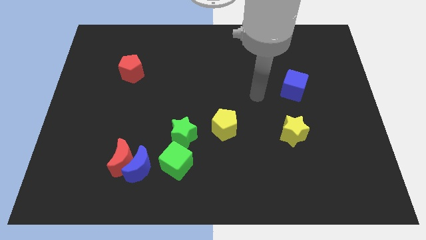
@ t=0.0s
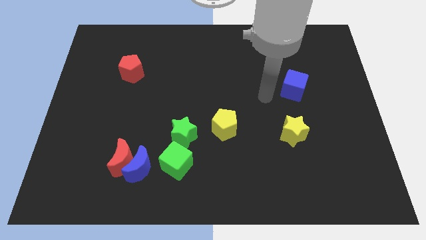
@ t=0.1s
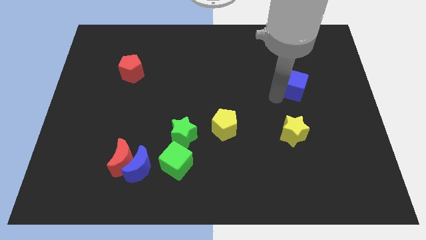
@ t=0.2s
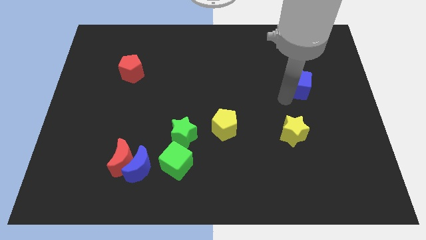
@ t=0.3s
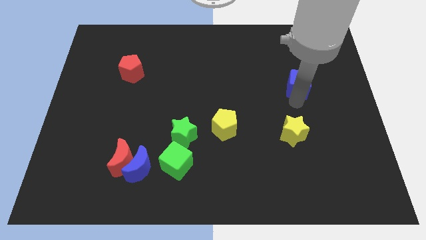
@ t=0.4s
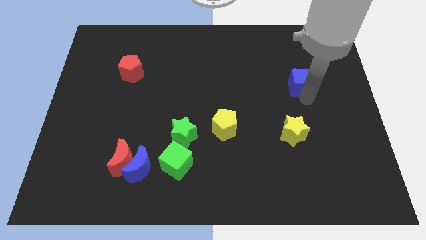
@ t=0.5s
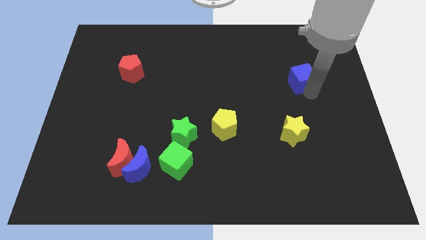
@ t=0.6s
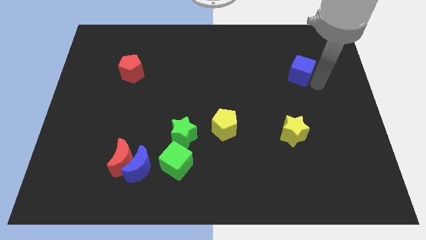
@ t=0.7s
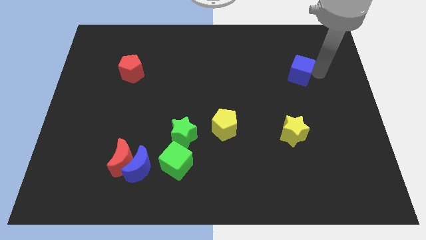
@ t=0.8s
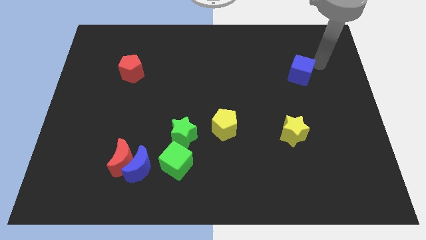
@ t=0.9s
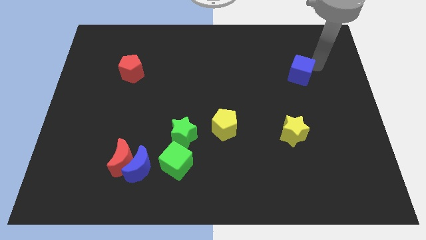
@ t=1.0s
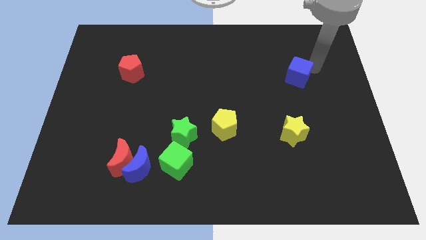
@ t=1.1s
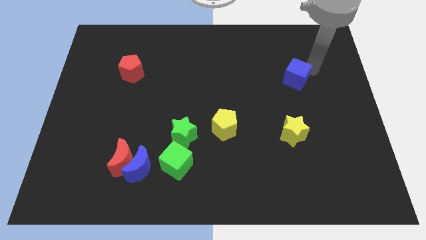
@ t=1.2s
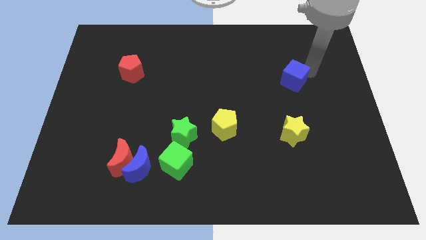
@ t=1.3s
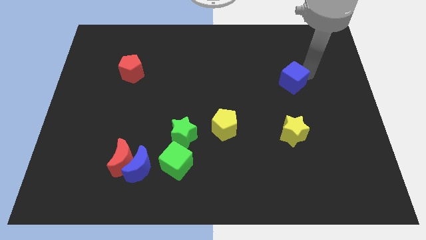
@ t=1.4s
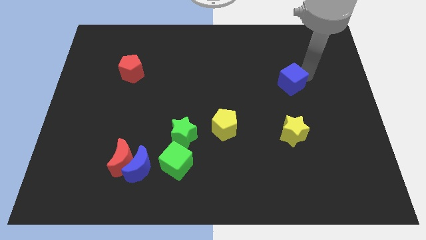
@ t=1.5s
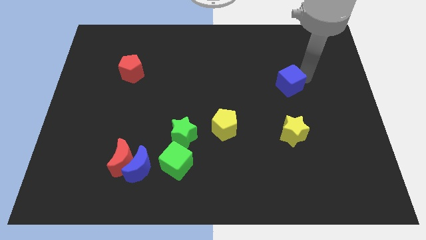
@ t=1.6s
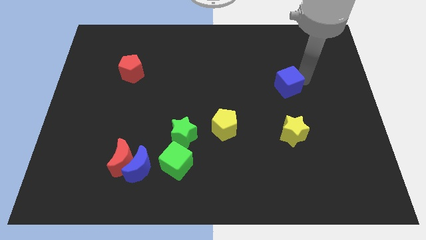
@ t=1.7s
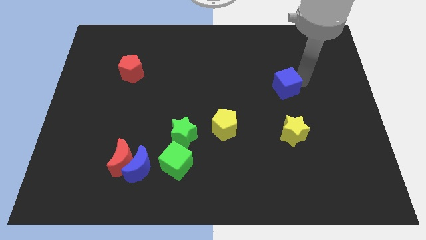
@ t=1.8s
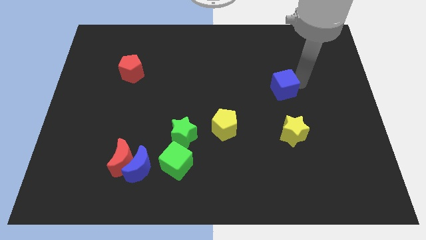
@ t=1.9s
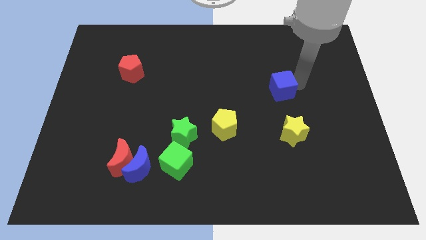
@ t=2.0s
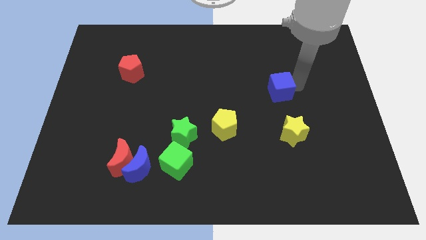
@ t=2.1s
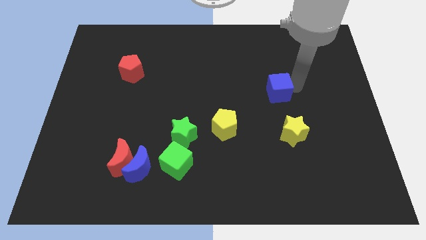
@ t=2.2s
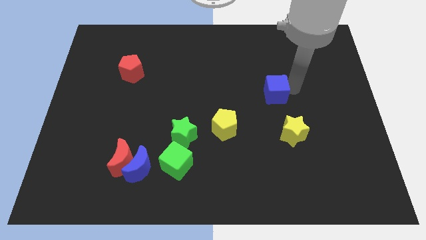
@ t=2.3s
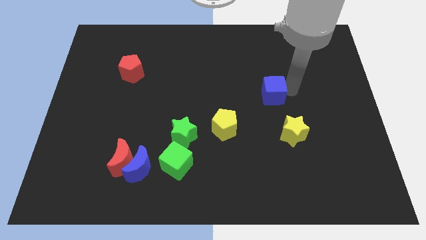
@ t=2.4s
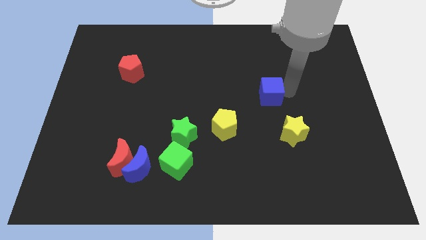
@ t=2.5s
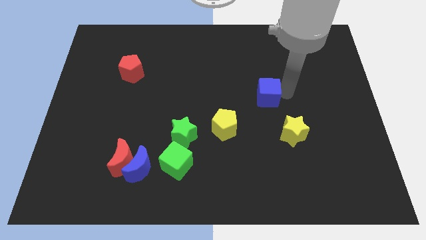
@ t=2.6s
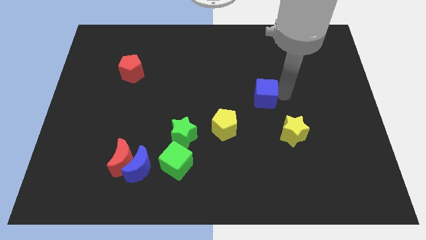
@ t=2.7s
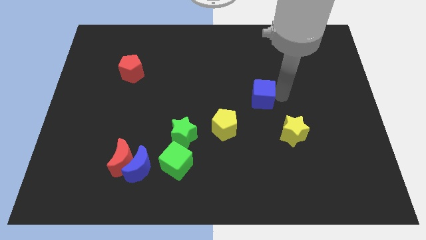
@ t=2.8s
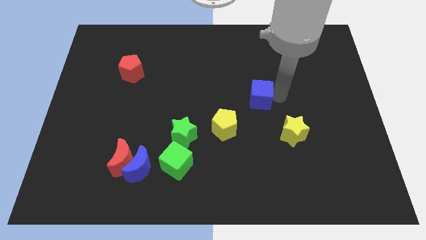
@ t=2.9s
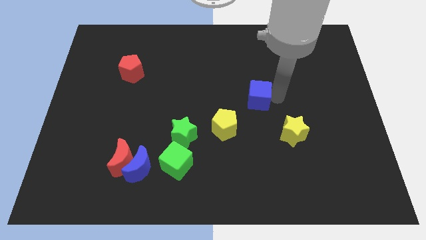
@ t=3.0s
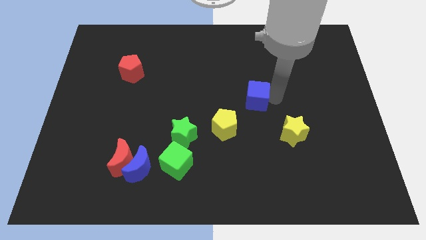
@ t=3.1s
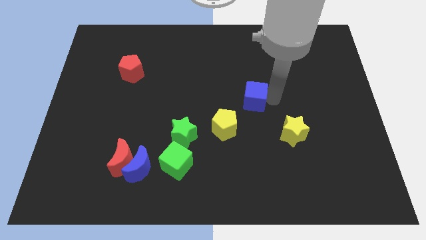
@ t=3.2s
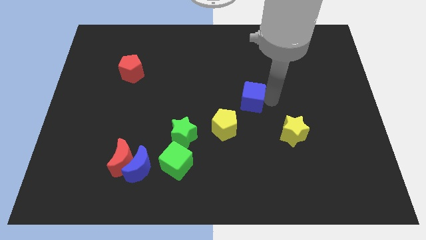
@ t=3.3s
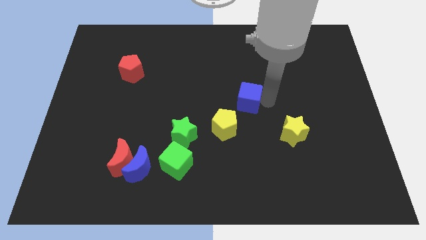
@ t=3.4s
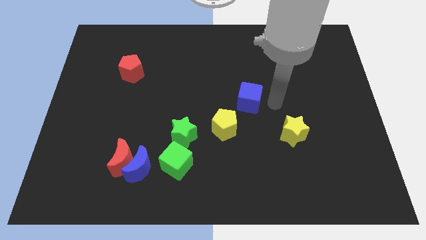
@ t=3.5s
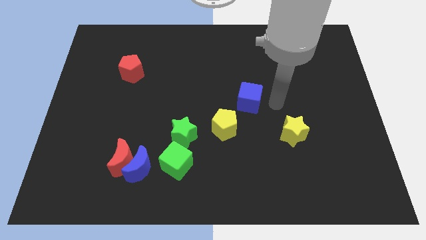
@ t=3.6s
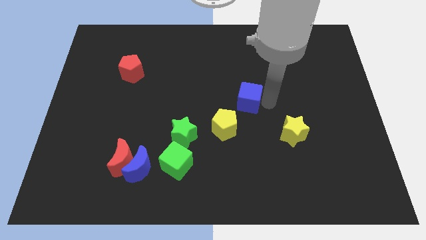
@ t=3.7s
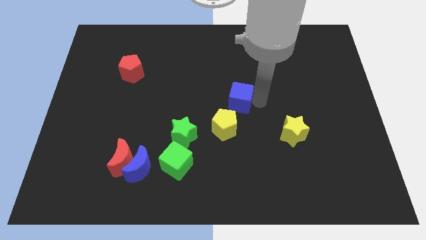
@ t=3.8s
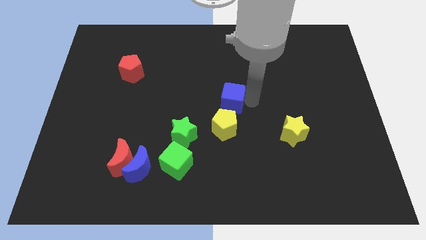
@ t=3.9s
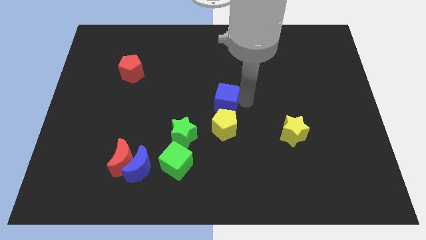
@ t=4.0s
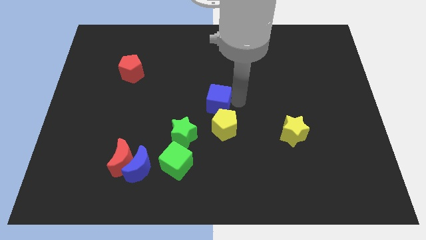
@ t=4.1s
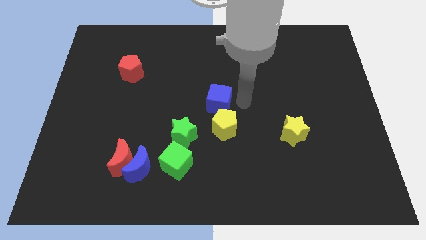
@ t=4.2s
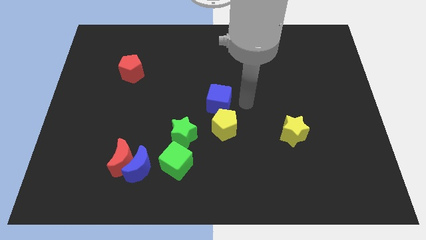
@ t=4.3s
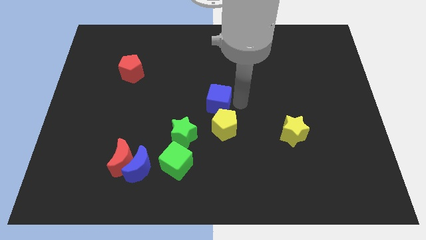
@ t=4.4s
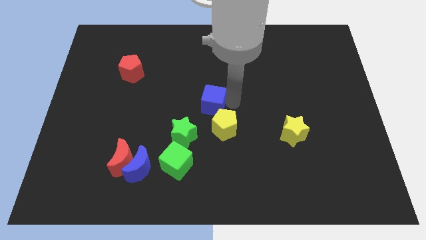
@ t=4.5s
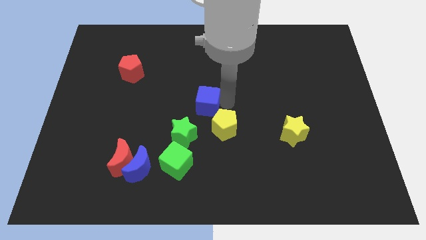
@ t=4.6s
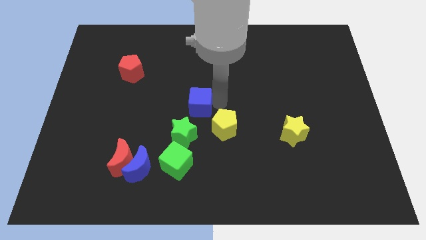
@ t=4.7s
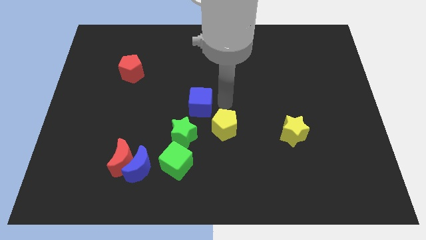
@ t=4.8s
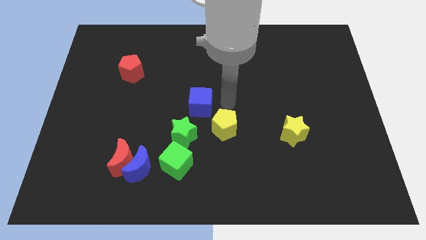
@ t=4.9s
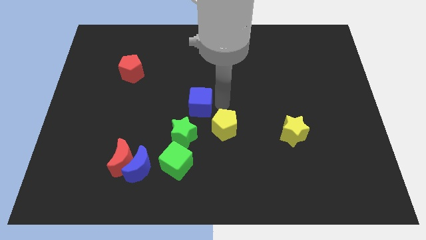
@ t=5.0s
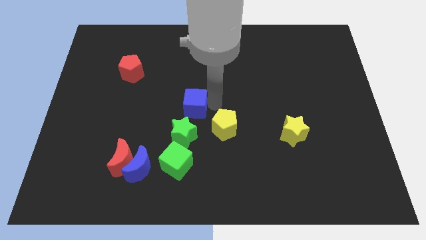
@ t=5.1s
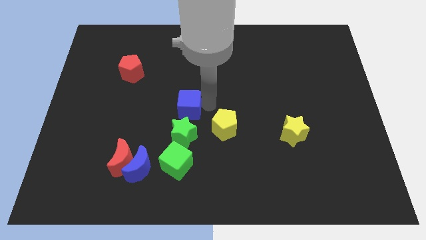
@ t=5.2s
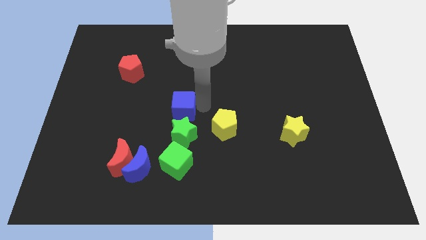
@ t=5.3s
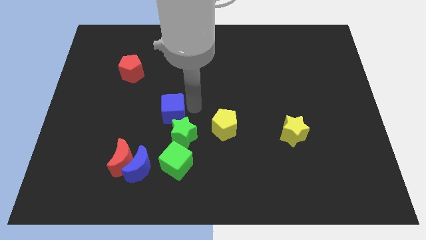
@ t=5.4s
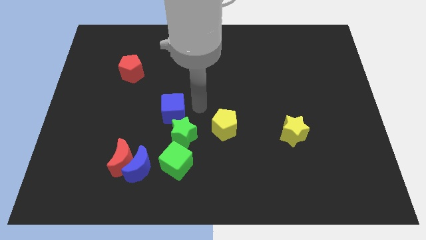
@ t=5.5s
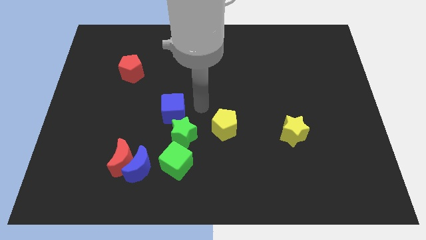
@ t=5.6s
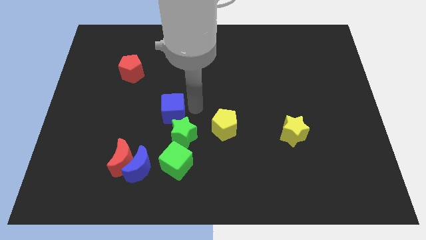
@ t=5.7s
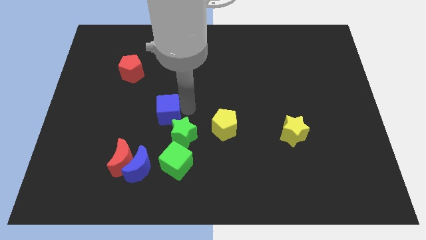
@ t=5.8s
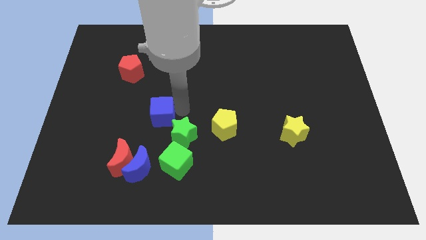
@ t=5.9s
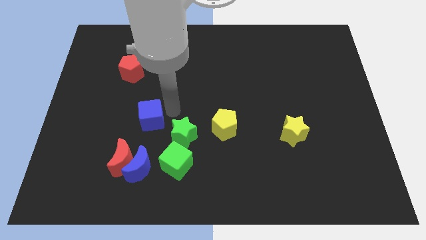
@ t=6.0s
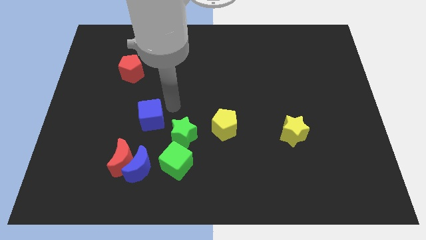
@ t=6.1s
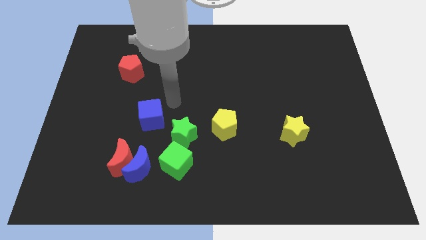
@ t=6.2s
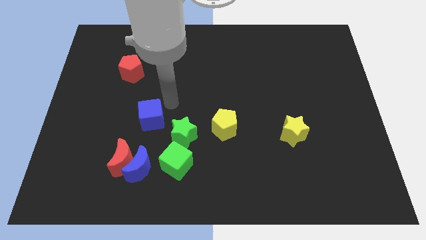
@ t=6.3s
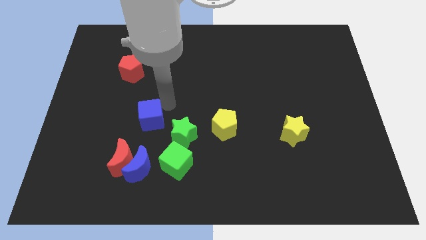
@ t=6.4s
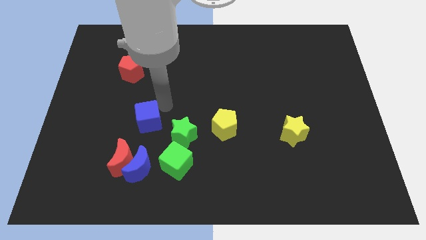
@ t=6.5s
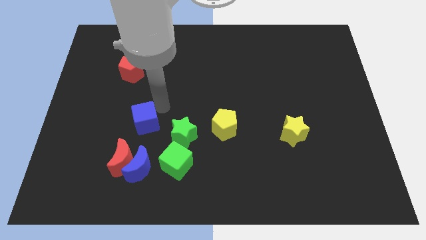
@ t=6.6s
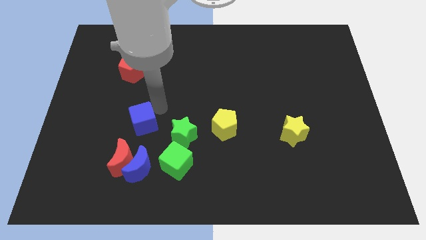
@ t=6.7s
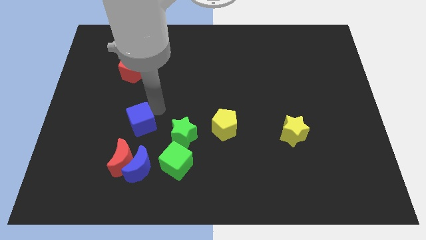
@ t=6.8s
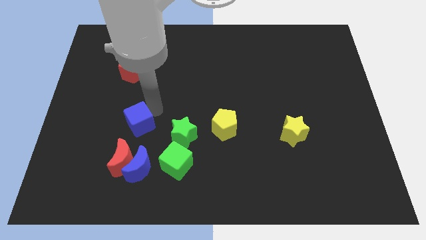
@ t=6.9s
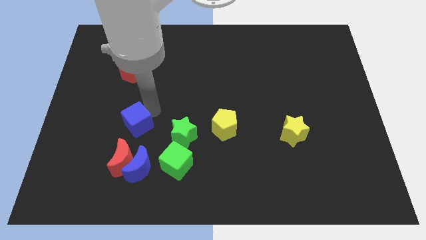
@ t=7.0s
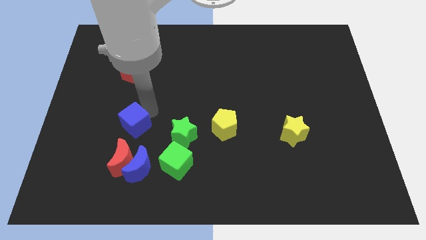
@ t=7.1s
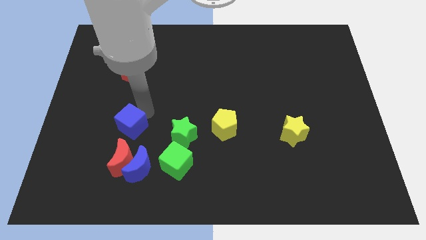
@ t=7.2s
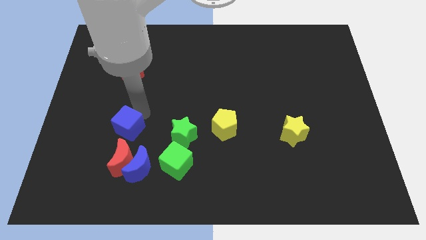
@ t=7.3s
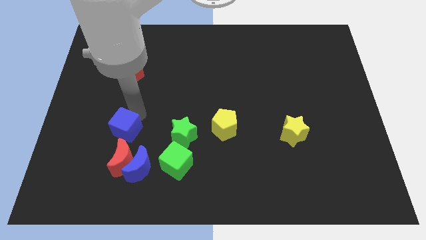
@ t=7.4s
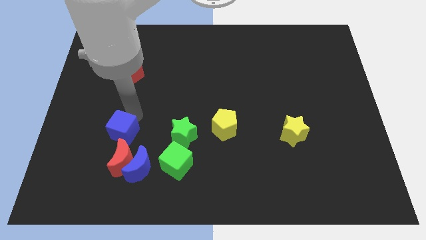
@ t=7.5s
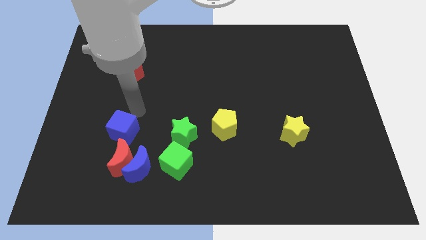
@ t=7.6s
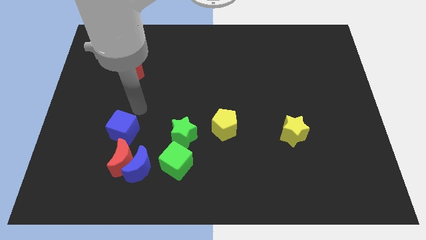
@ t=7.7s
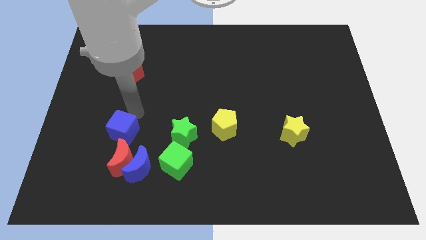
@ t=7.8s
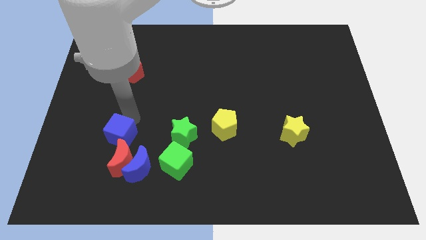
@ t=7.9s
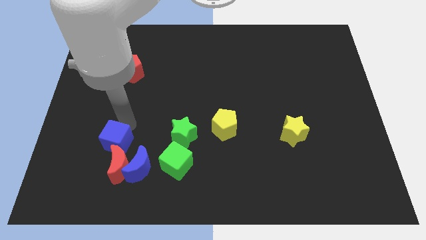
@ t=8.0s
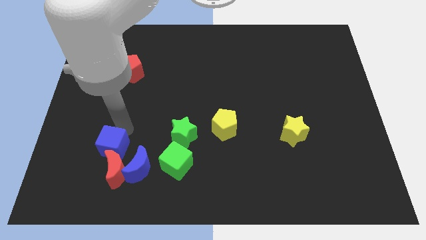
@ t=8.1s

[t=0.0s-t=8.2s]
push the blue cube to the left side of the green cube
